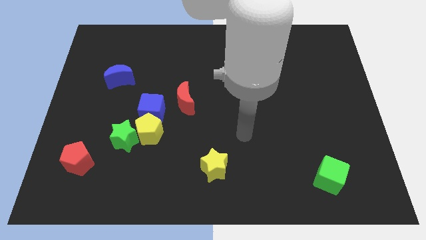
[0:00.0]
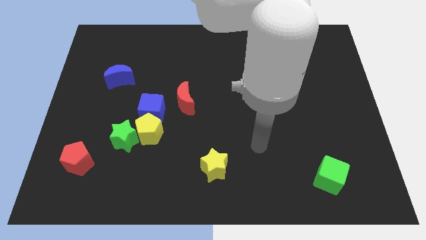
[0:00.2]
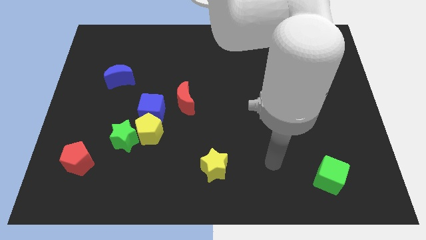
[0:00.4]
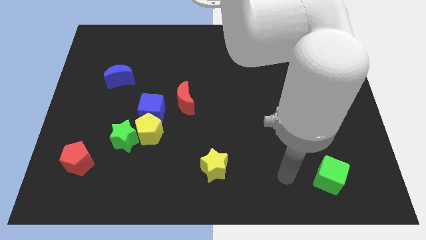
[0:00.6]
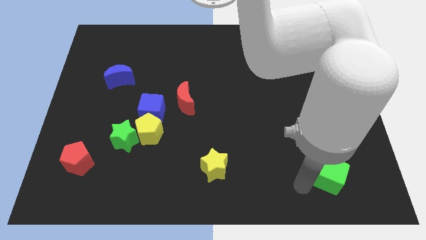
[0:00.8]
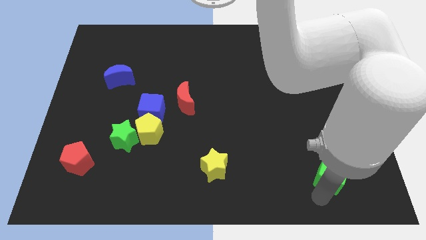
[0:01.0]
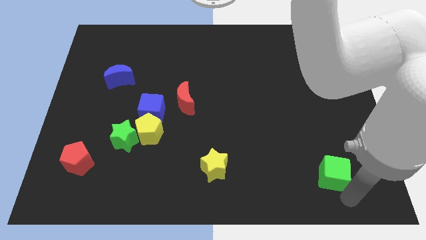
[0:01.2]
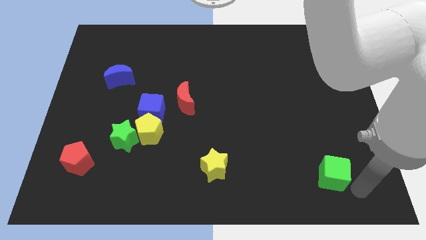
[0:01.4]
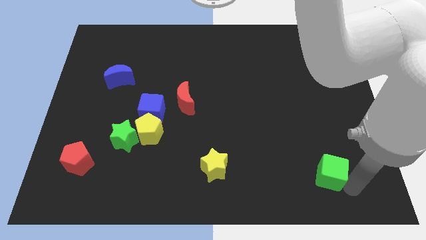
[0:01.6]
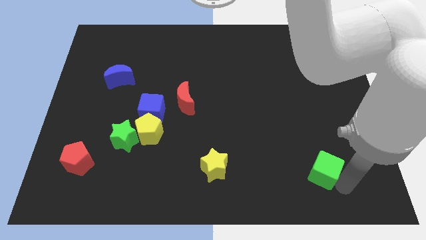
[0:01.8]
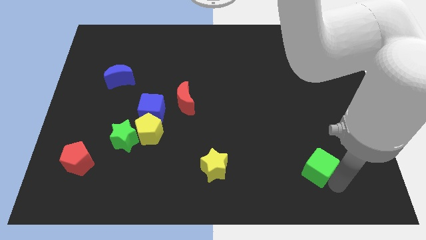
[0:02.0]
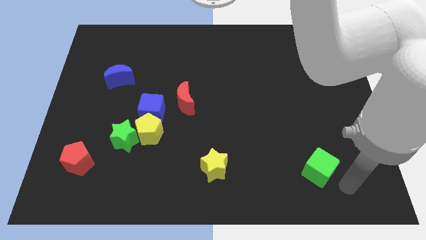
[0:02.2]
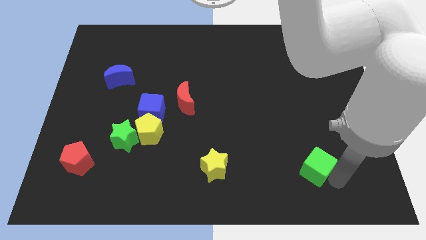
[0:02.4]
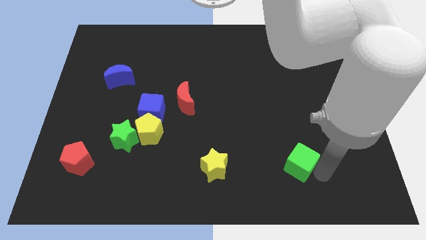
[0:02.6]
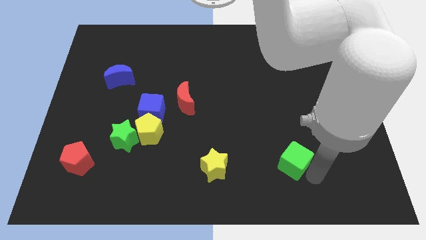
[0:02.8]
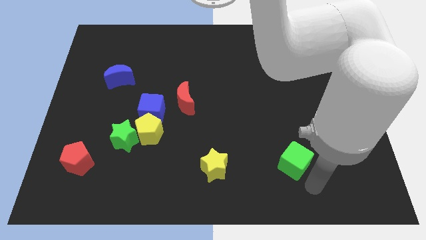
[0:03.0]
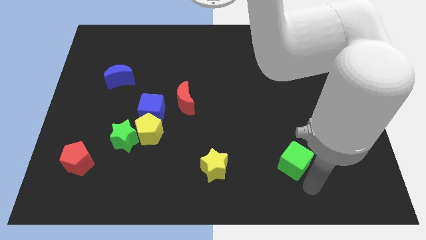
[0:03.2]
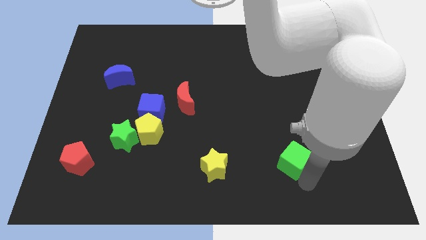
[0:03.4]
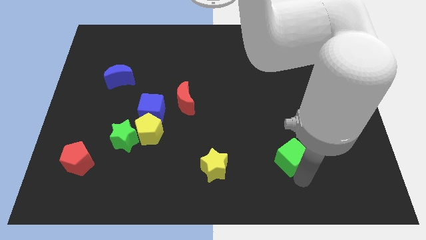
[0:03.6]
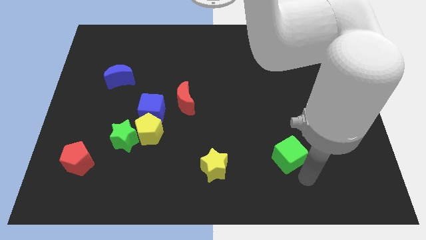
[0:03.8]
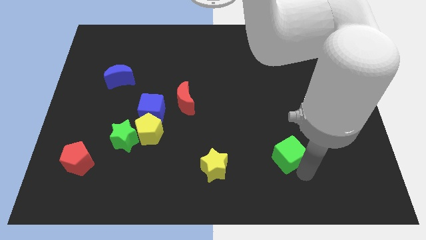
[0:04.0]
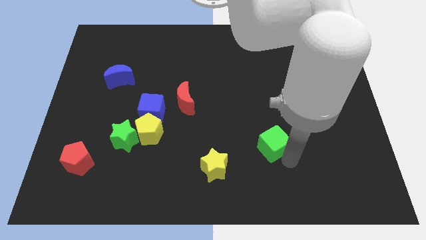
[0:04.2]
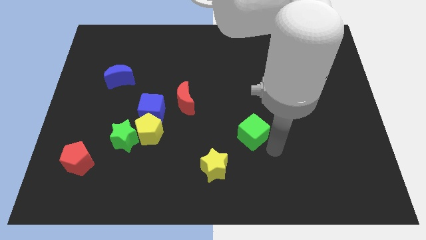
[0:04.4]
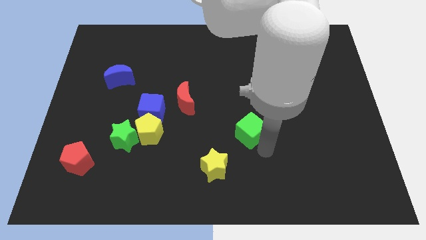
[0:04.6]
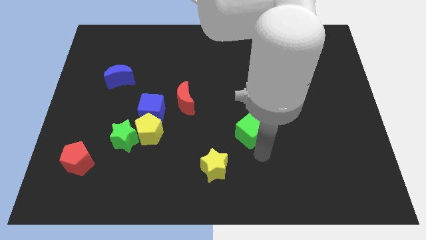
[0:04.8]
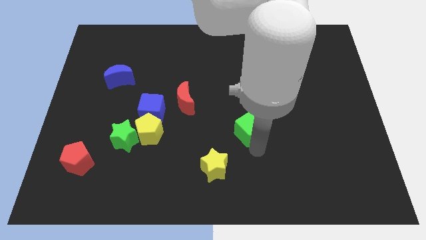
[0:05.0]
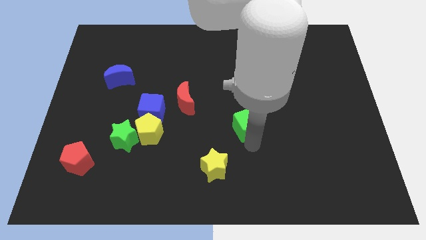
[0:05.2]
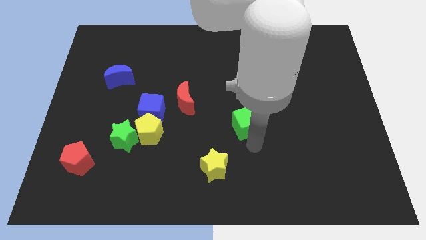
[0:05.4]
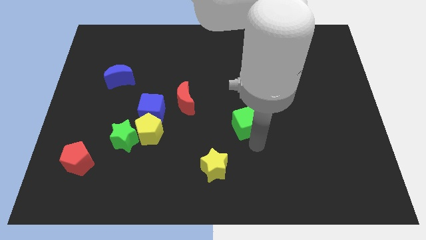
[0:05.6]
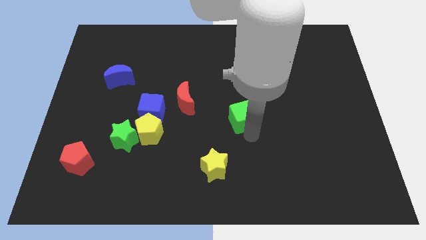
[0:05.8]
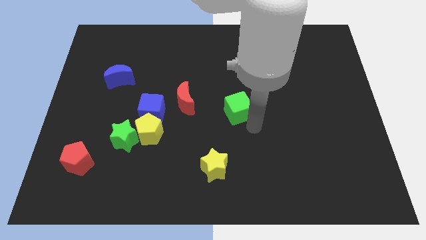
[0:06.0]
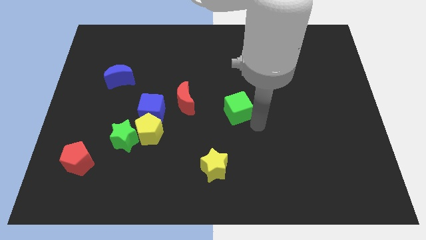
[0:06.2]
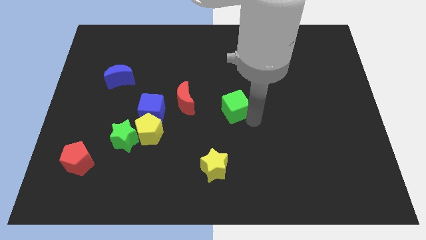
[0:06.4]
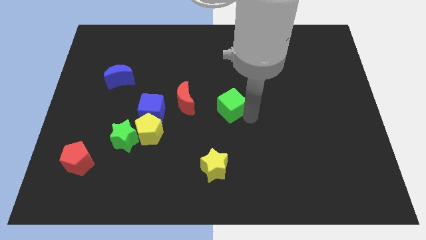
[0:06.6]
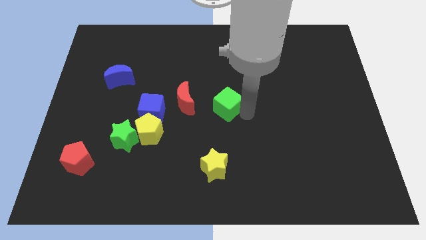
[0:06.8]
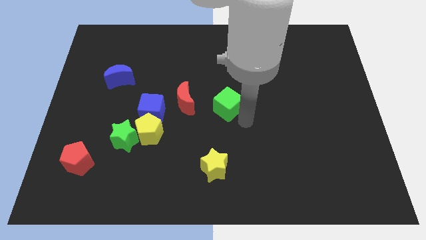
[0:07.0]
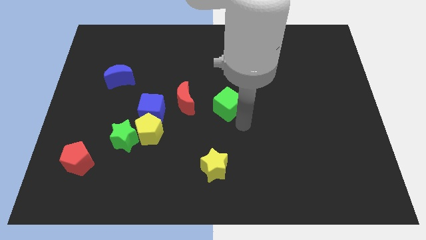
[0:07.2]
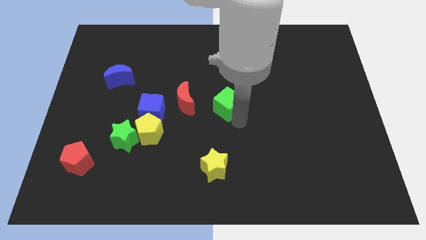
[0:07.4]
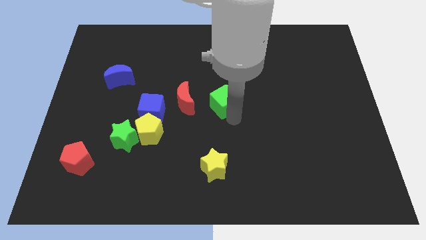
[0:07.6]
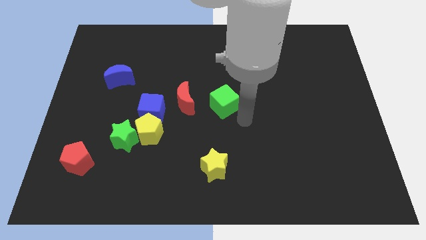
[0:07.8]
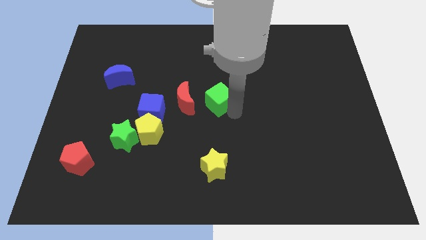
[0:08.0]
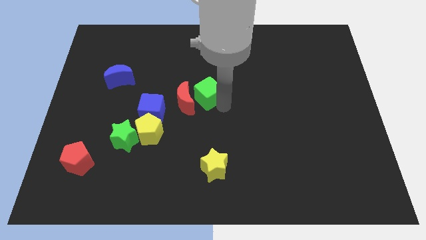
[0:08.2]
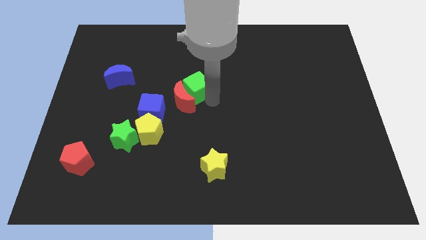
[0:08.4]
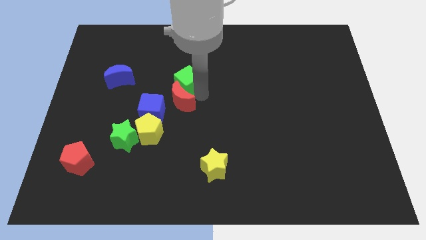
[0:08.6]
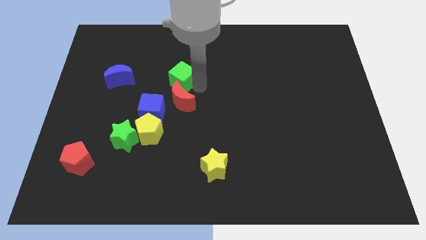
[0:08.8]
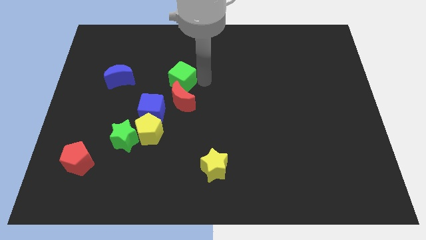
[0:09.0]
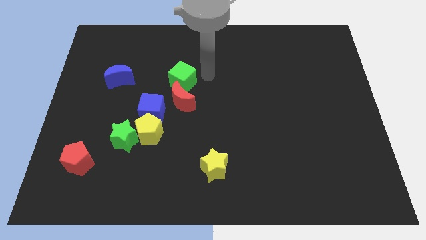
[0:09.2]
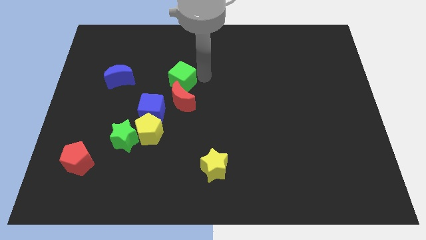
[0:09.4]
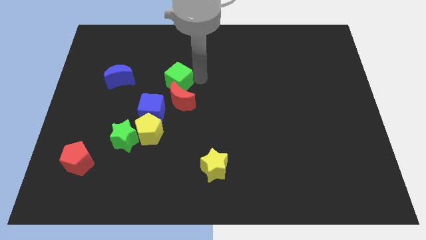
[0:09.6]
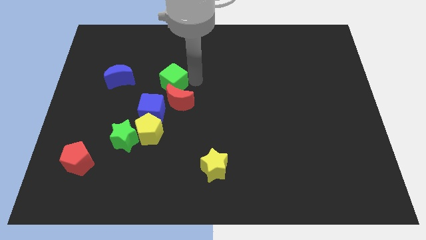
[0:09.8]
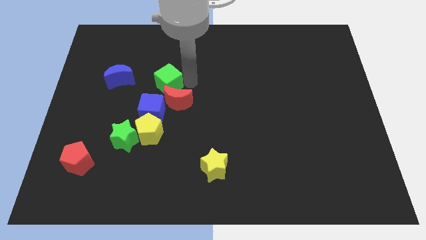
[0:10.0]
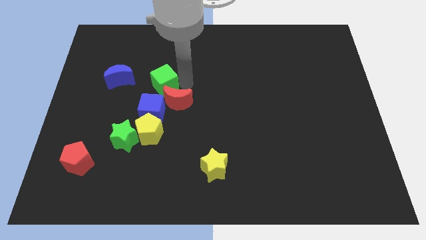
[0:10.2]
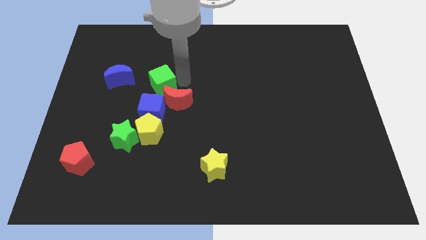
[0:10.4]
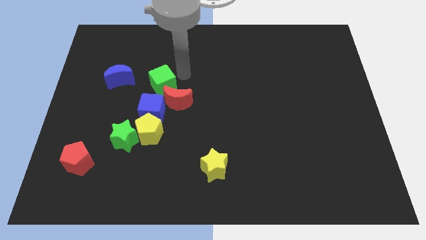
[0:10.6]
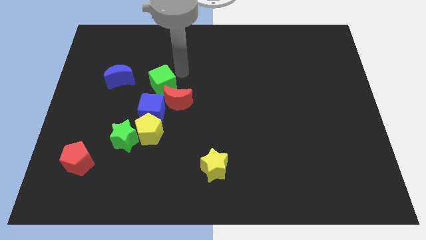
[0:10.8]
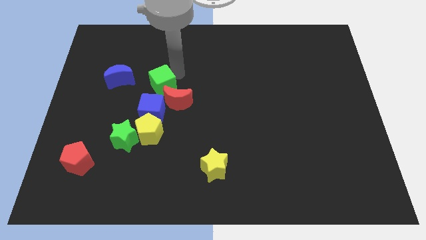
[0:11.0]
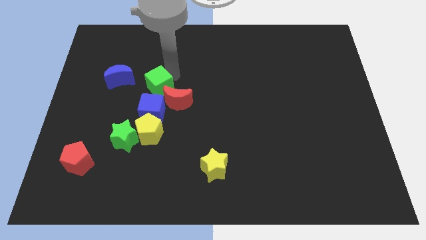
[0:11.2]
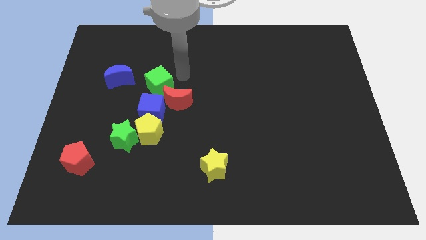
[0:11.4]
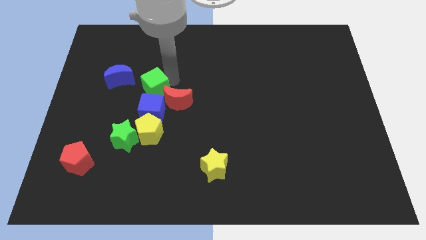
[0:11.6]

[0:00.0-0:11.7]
push the green cube to the bottom right side of the blue moon

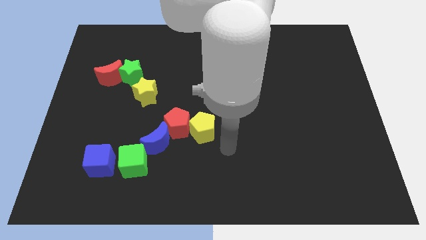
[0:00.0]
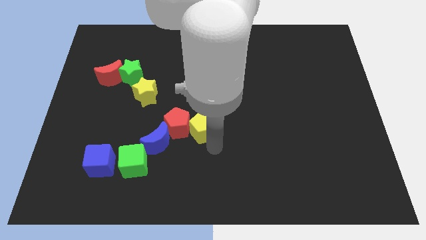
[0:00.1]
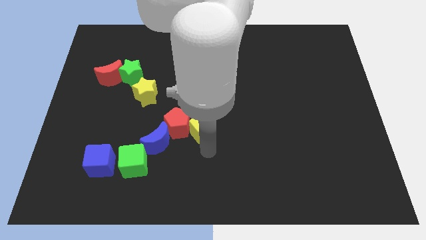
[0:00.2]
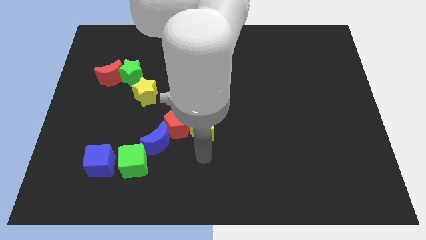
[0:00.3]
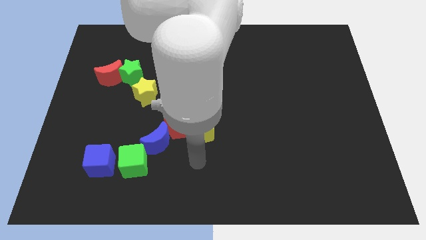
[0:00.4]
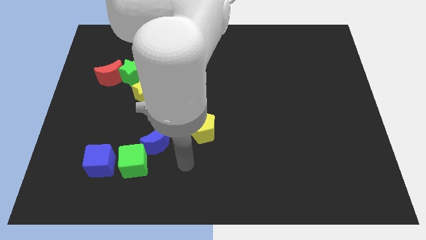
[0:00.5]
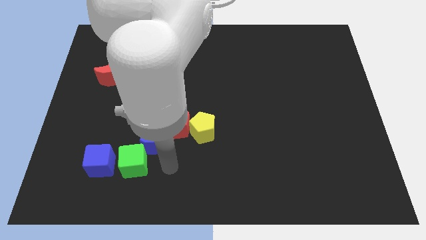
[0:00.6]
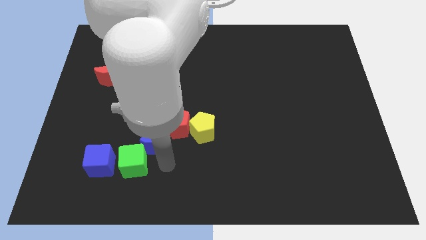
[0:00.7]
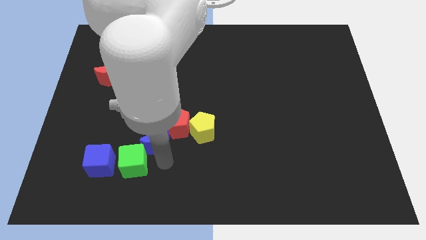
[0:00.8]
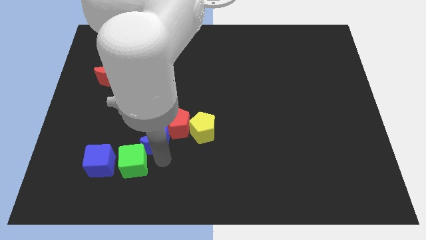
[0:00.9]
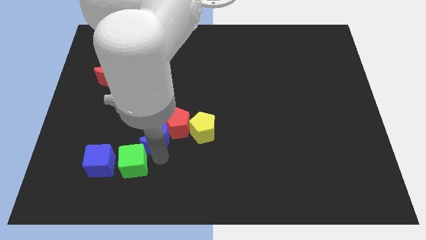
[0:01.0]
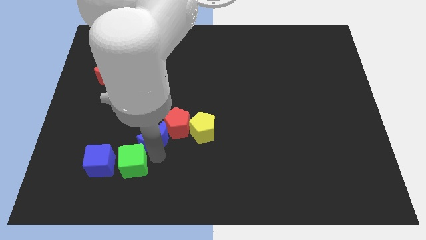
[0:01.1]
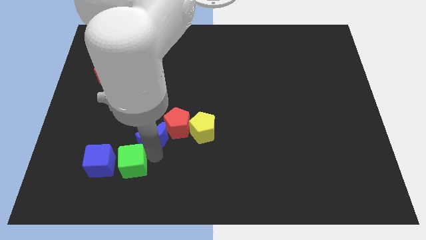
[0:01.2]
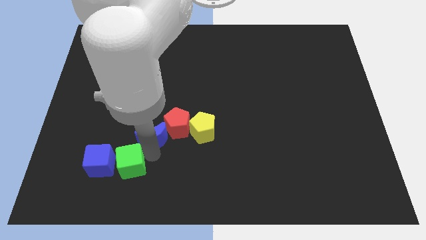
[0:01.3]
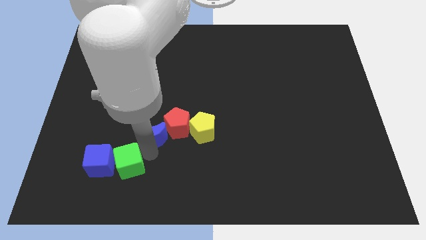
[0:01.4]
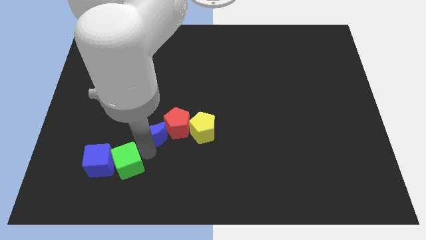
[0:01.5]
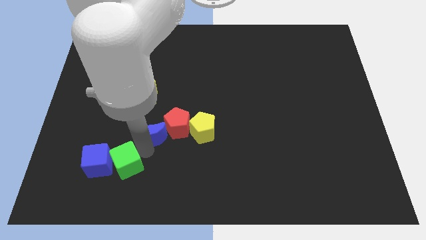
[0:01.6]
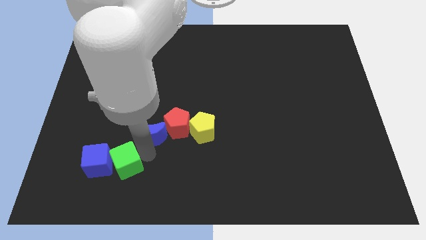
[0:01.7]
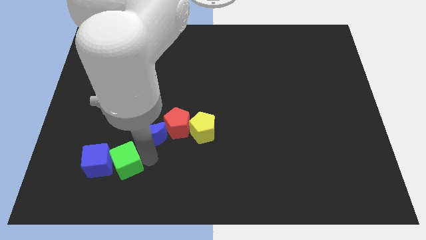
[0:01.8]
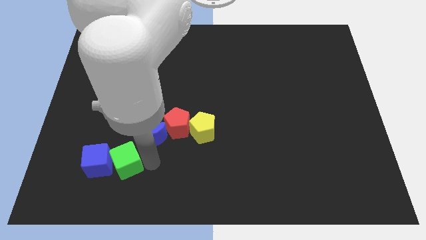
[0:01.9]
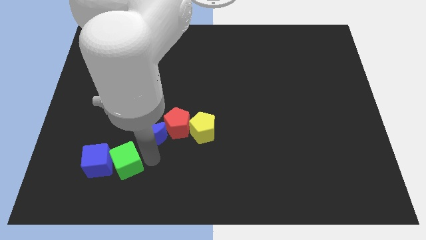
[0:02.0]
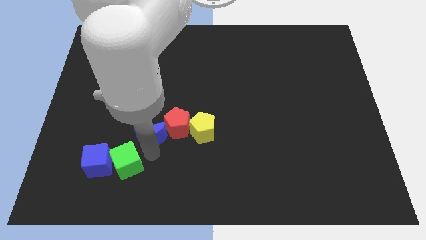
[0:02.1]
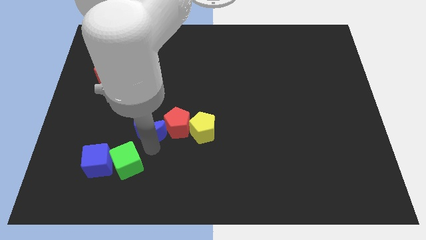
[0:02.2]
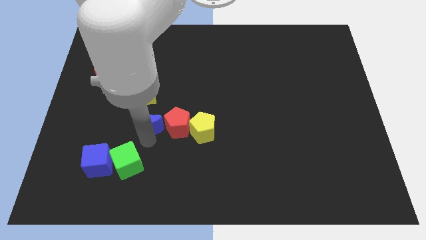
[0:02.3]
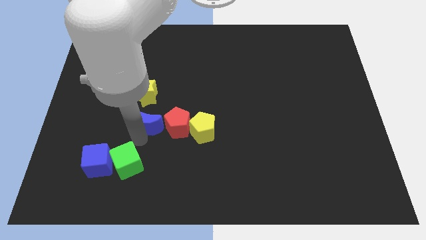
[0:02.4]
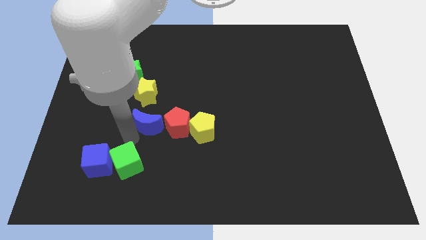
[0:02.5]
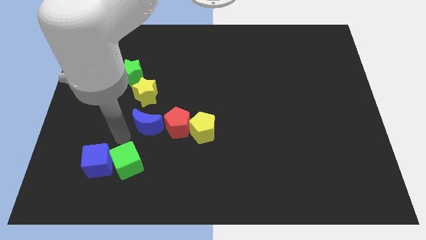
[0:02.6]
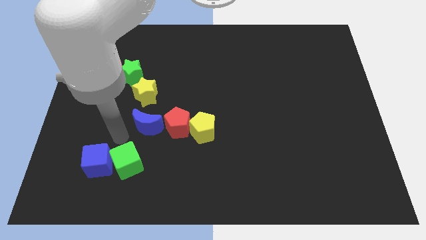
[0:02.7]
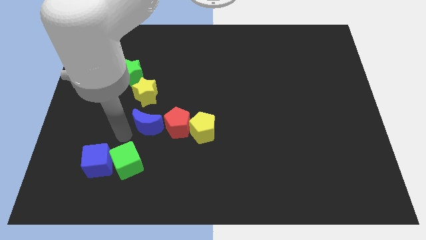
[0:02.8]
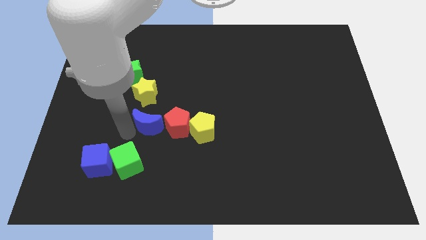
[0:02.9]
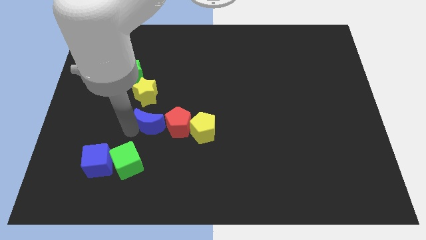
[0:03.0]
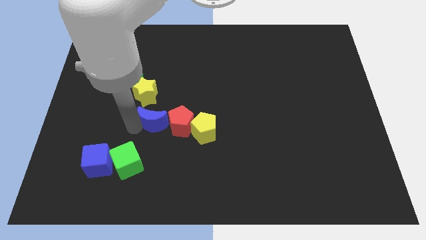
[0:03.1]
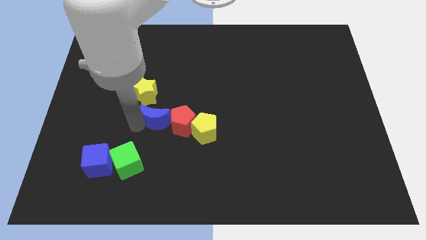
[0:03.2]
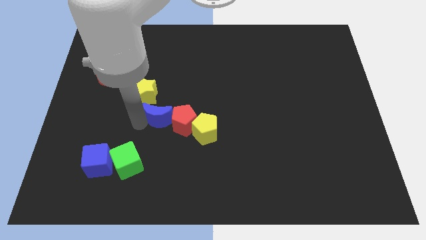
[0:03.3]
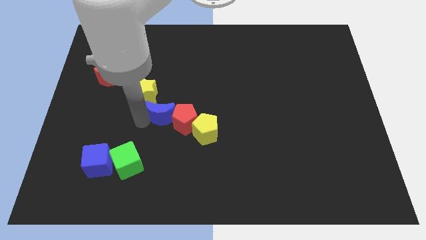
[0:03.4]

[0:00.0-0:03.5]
push the blue moon to the top left side of the yellow pentagon
